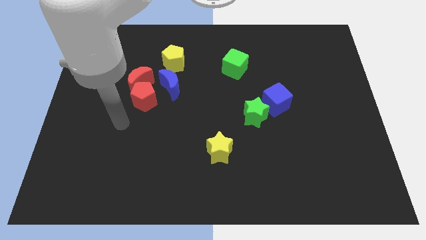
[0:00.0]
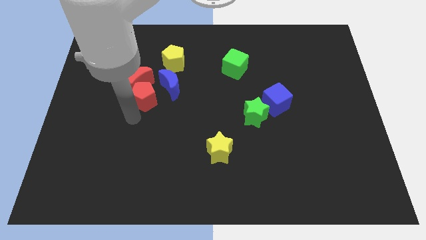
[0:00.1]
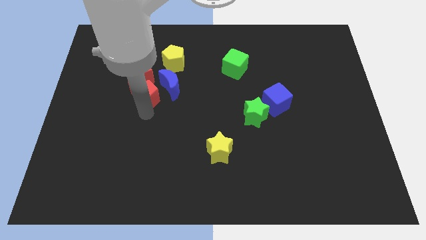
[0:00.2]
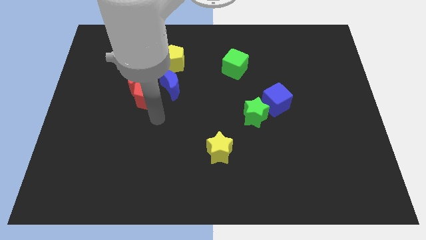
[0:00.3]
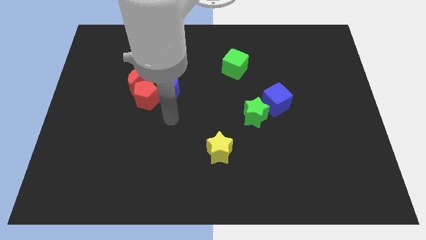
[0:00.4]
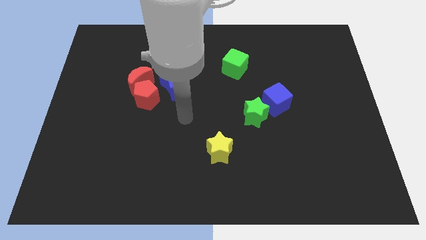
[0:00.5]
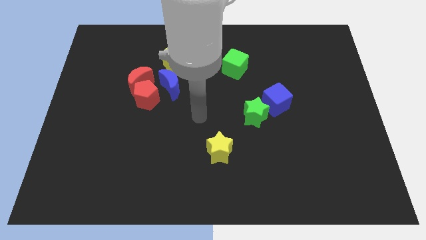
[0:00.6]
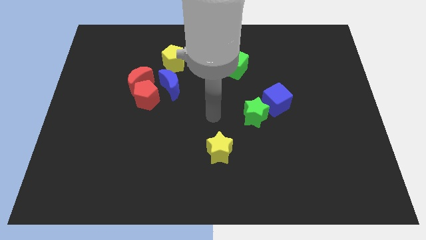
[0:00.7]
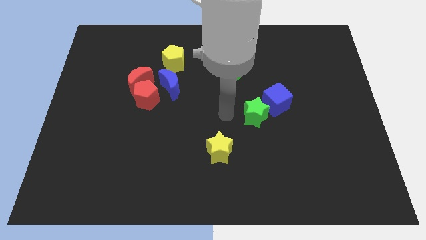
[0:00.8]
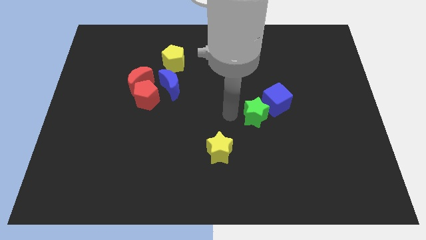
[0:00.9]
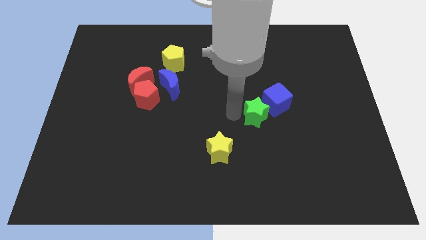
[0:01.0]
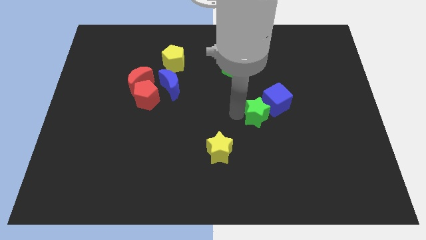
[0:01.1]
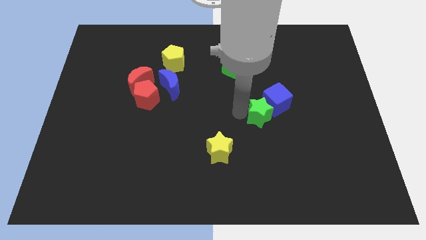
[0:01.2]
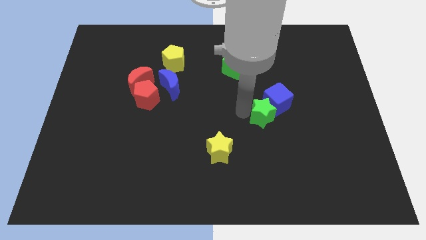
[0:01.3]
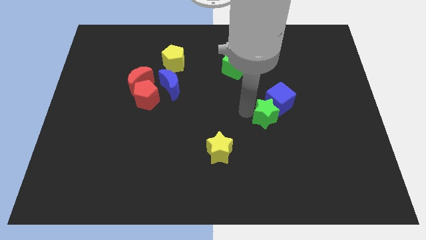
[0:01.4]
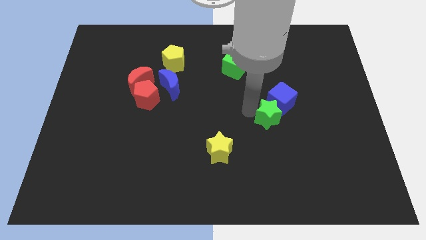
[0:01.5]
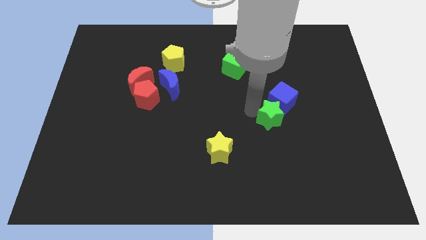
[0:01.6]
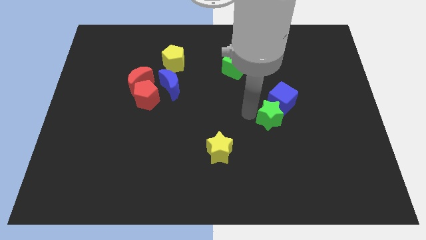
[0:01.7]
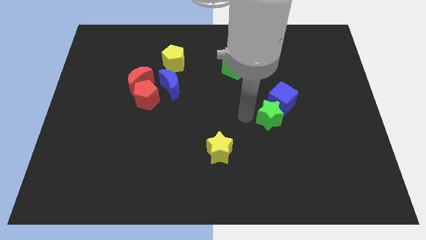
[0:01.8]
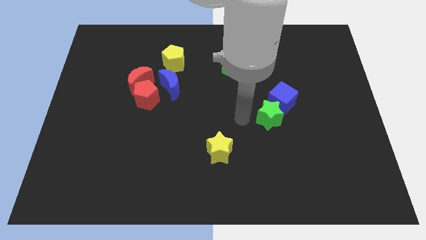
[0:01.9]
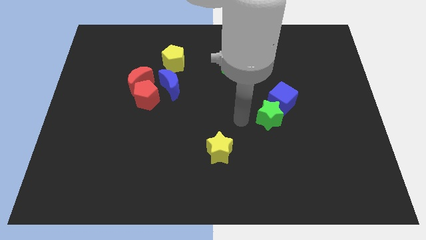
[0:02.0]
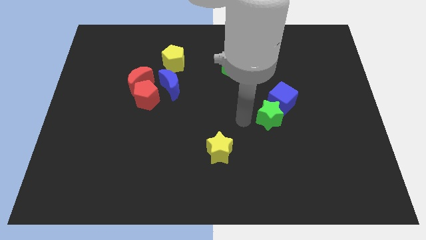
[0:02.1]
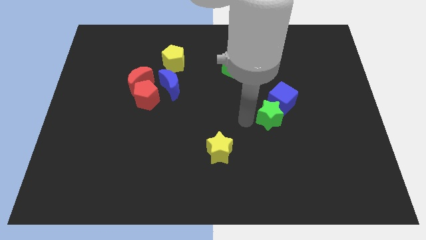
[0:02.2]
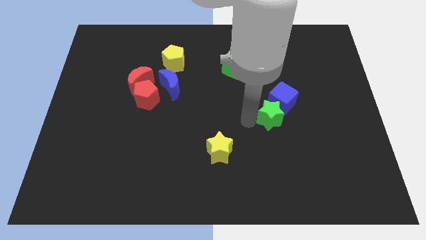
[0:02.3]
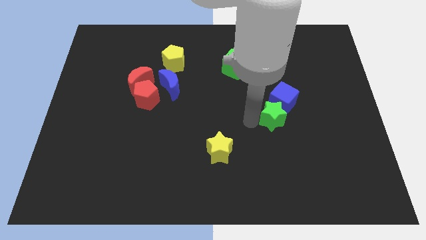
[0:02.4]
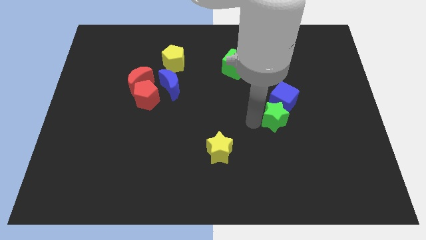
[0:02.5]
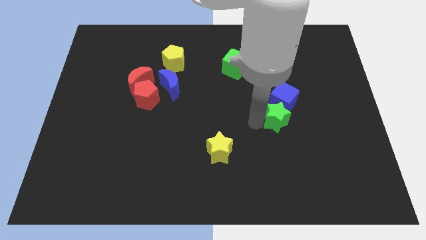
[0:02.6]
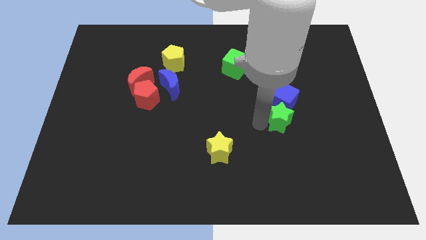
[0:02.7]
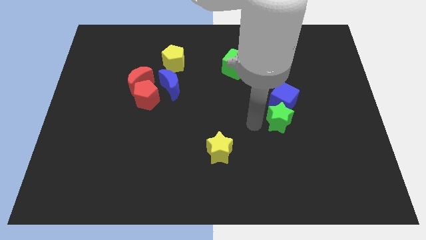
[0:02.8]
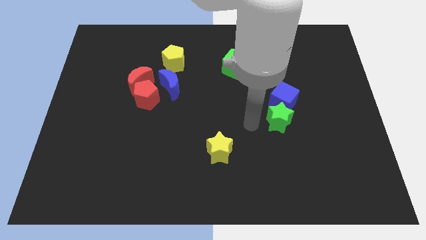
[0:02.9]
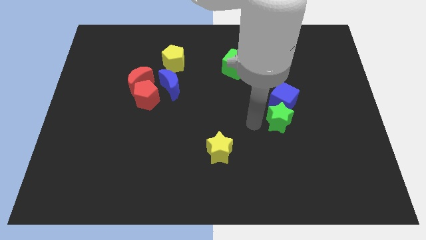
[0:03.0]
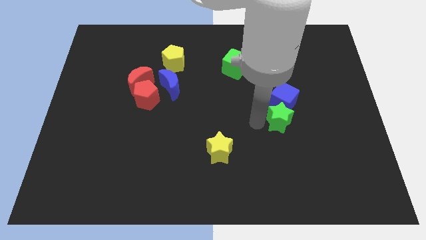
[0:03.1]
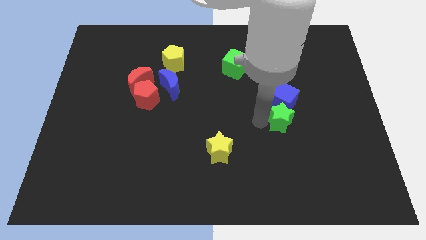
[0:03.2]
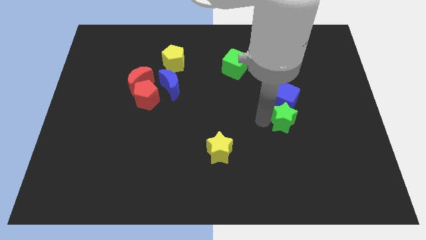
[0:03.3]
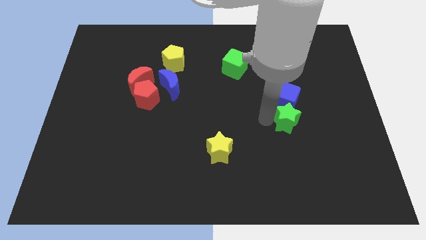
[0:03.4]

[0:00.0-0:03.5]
slide the green star slightly right

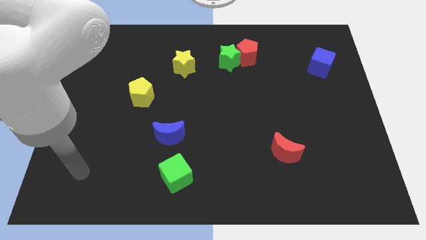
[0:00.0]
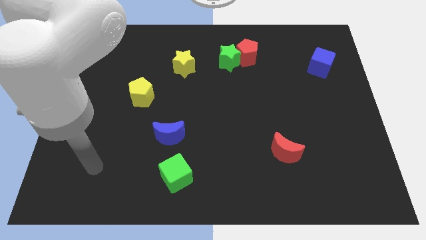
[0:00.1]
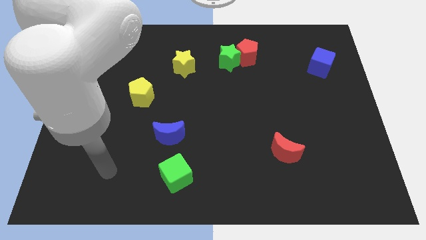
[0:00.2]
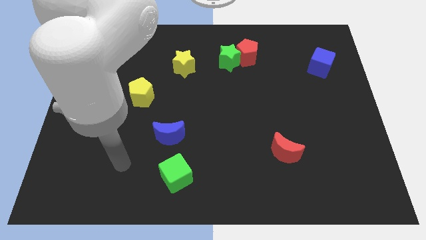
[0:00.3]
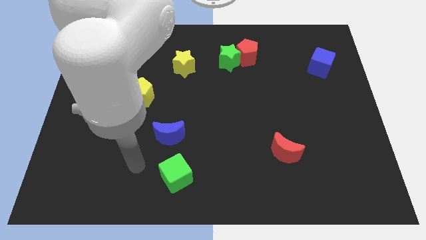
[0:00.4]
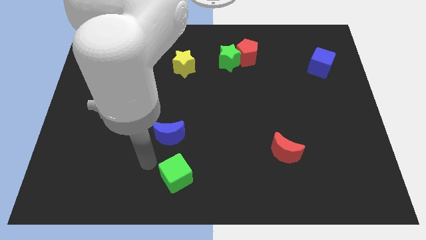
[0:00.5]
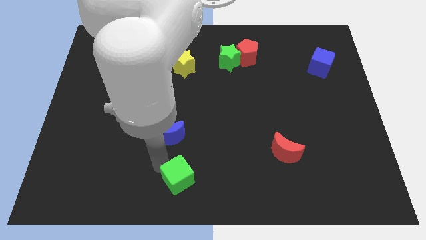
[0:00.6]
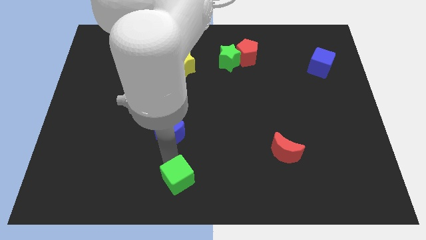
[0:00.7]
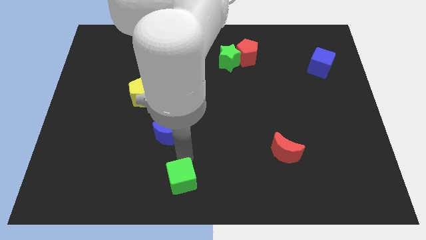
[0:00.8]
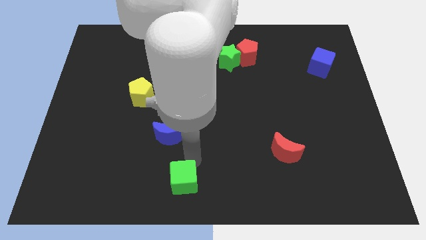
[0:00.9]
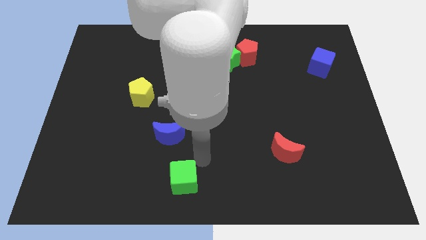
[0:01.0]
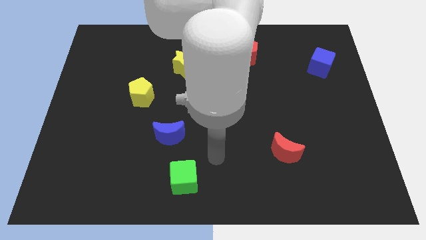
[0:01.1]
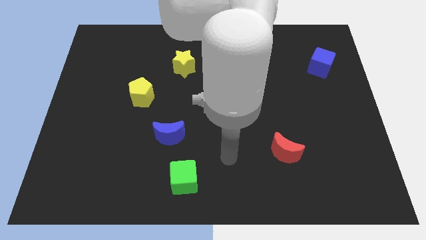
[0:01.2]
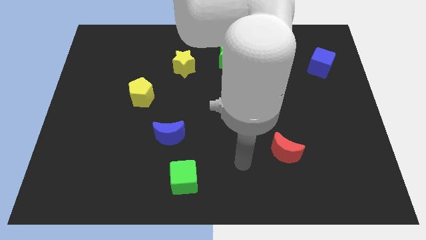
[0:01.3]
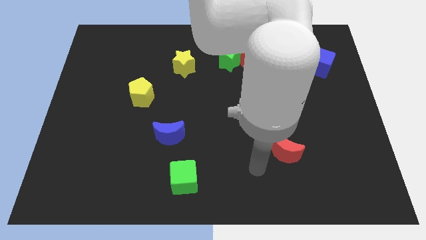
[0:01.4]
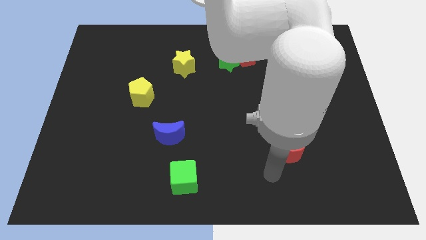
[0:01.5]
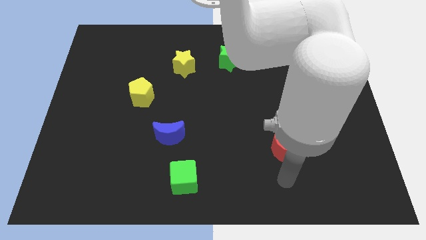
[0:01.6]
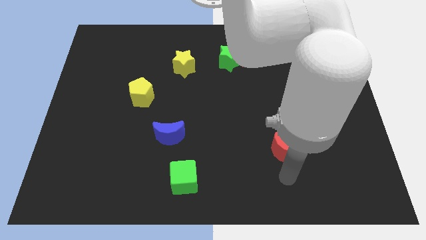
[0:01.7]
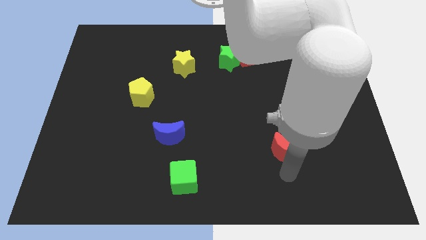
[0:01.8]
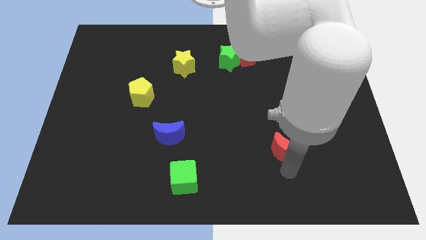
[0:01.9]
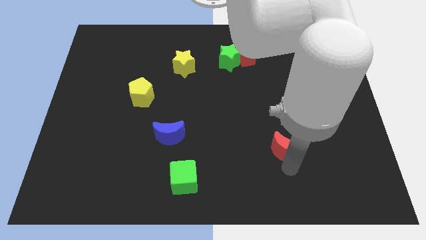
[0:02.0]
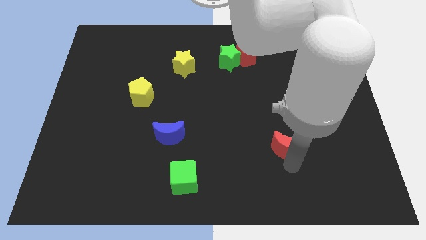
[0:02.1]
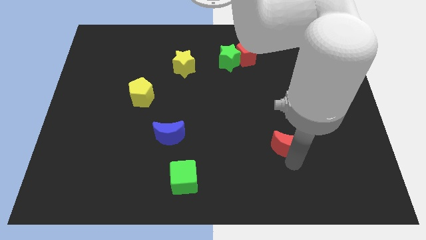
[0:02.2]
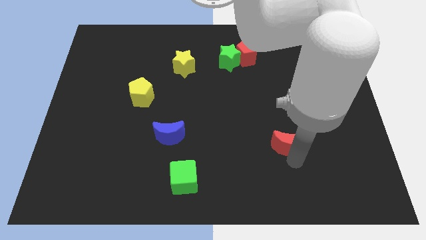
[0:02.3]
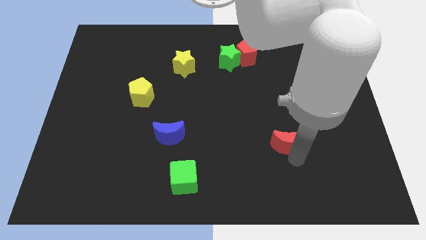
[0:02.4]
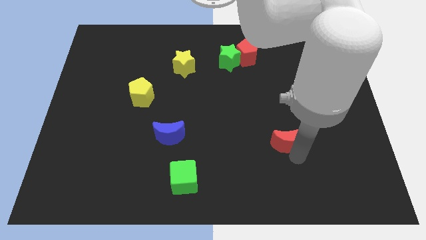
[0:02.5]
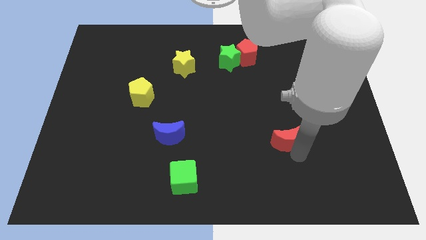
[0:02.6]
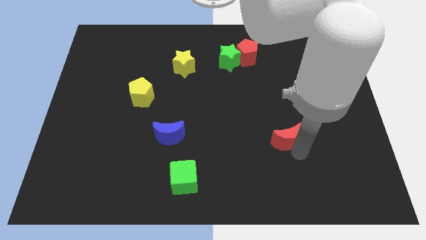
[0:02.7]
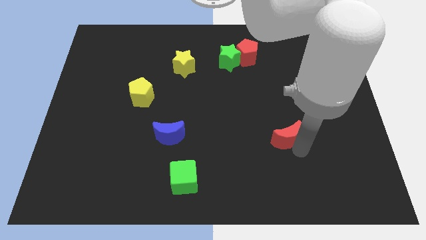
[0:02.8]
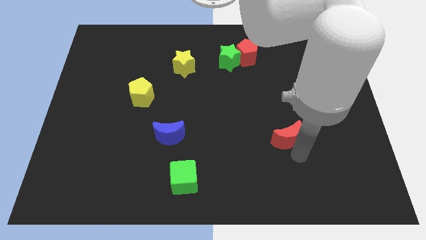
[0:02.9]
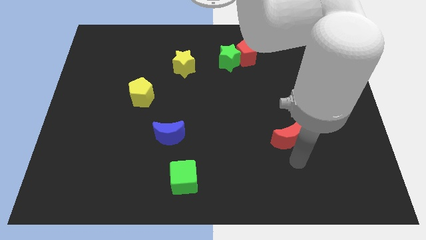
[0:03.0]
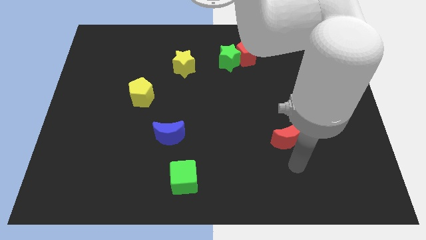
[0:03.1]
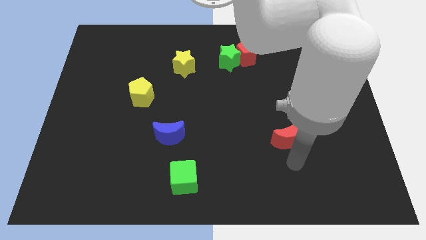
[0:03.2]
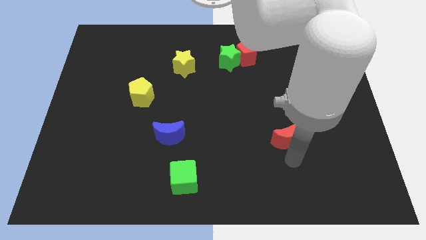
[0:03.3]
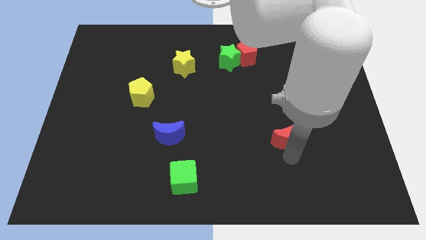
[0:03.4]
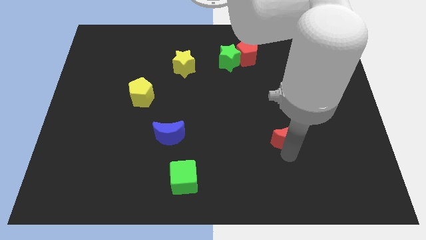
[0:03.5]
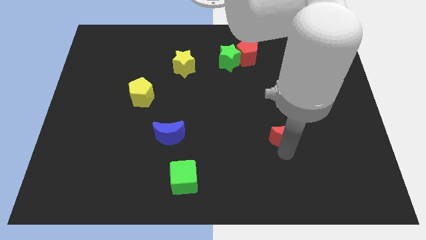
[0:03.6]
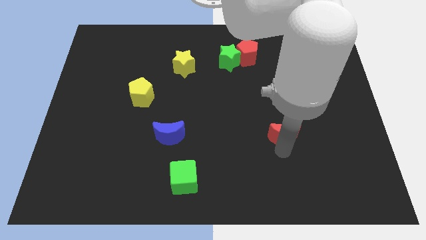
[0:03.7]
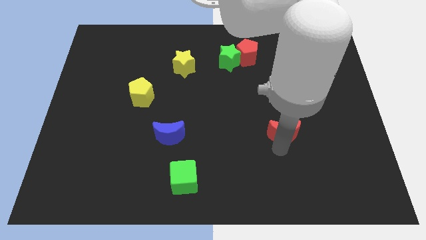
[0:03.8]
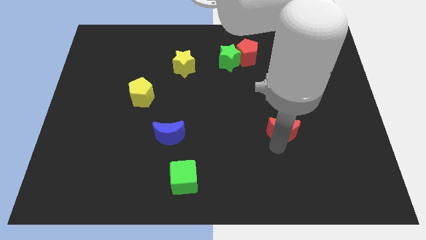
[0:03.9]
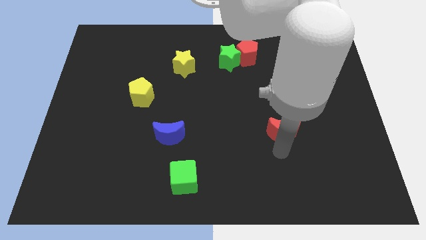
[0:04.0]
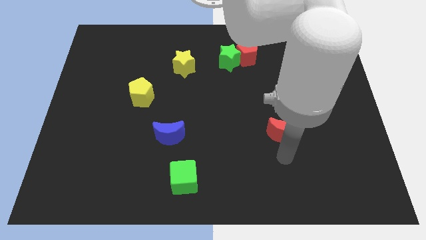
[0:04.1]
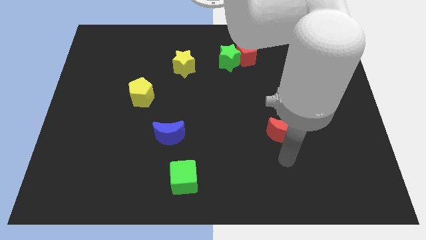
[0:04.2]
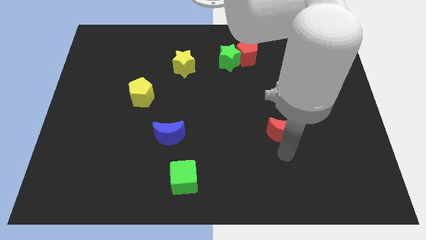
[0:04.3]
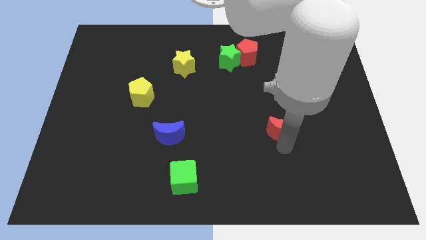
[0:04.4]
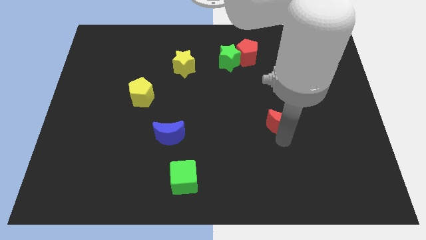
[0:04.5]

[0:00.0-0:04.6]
slide the red moon a little bit upwards
